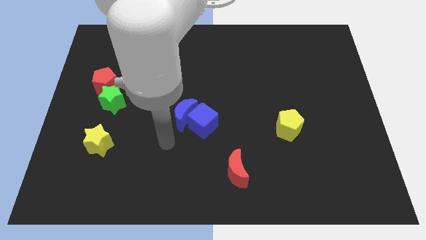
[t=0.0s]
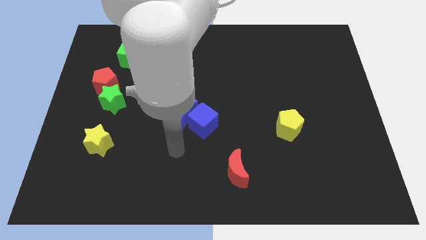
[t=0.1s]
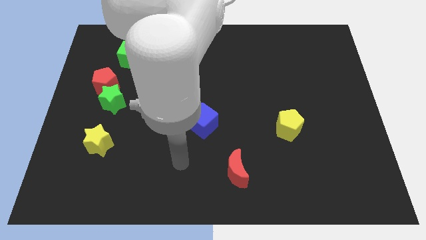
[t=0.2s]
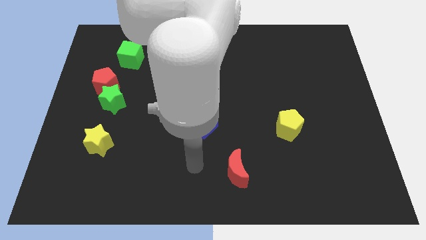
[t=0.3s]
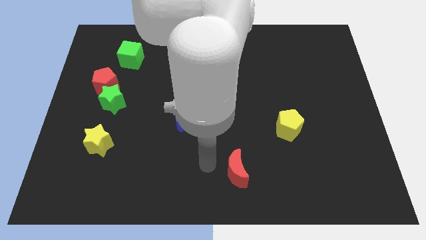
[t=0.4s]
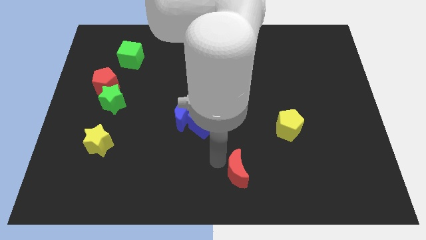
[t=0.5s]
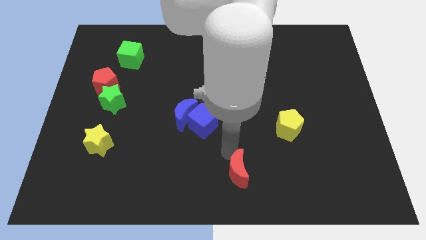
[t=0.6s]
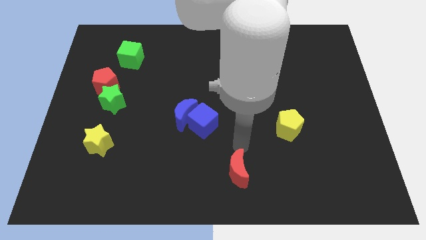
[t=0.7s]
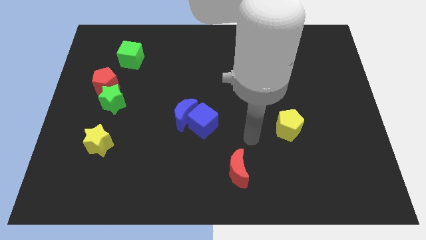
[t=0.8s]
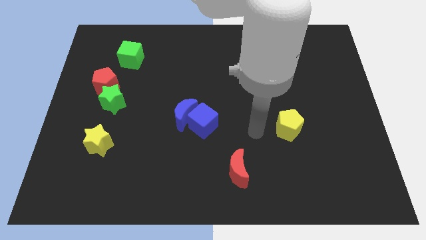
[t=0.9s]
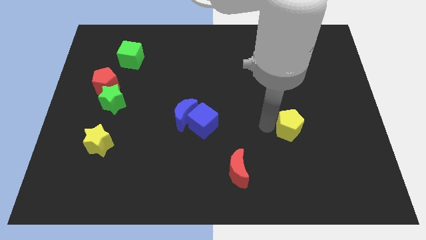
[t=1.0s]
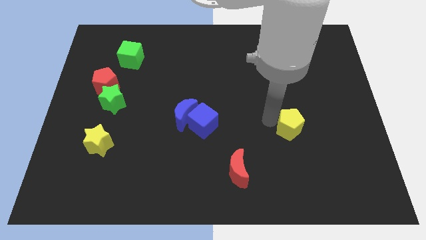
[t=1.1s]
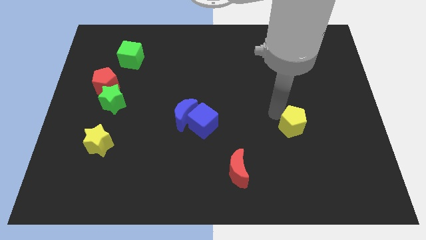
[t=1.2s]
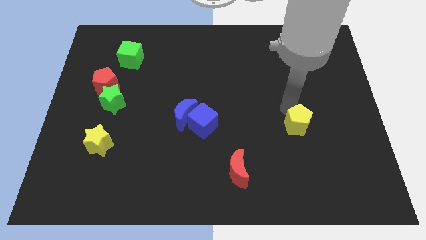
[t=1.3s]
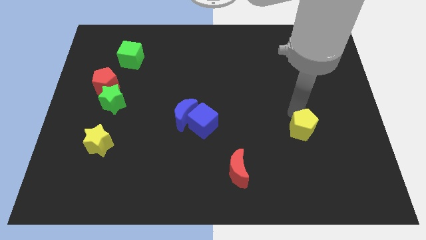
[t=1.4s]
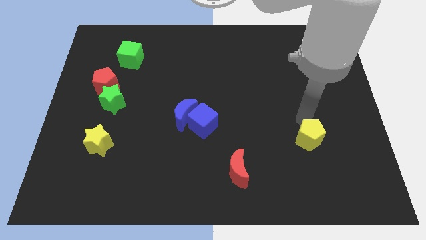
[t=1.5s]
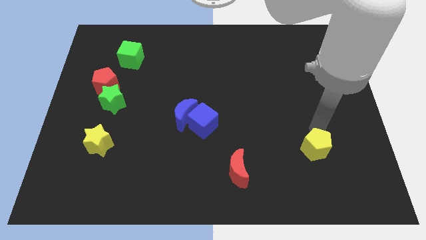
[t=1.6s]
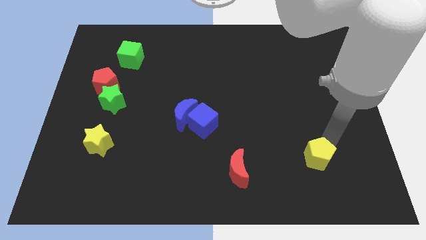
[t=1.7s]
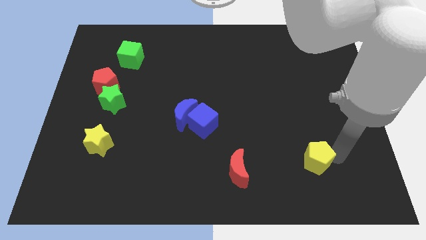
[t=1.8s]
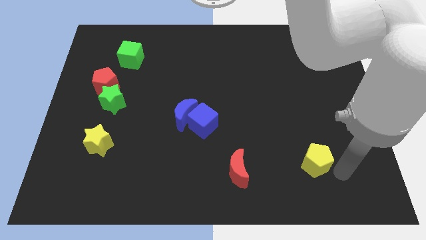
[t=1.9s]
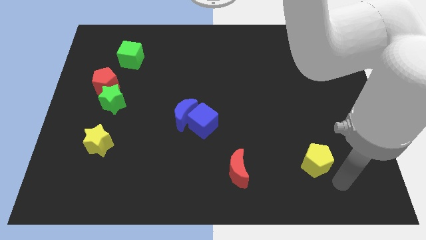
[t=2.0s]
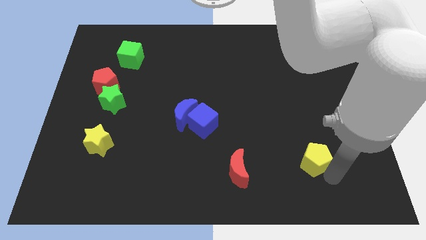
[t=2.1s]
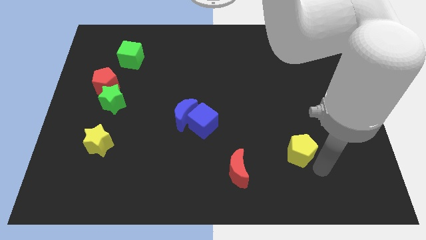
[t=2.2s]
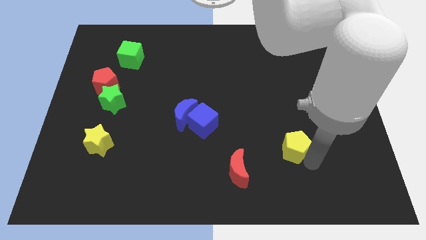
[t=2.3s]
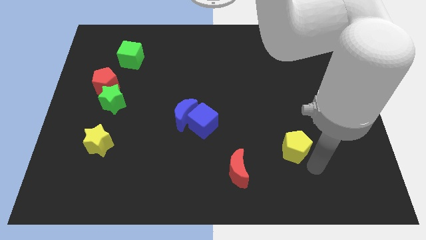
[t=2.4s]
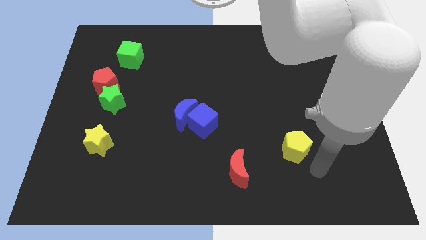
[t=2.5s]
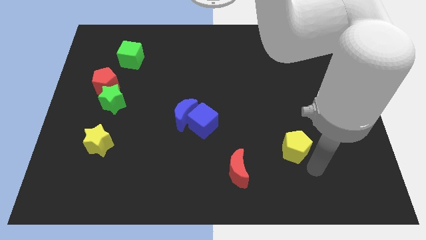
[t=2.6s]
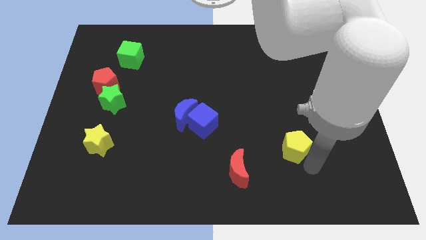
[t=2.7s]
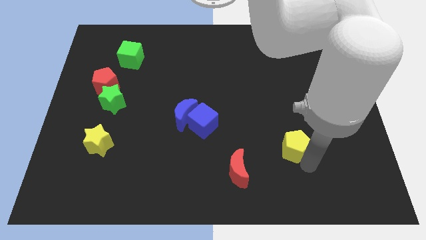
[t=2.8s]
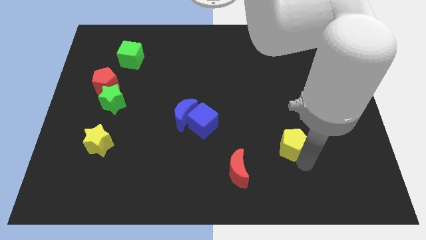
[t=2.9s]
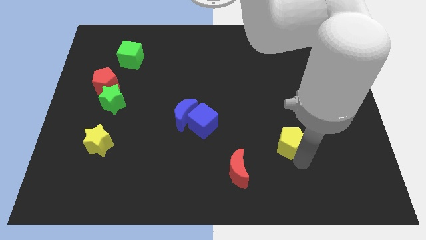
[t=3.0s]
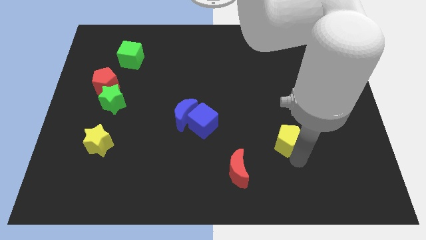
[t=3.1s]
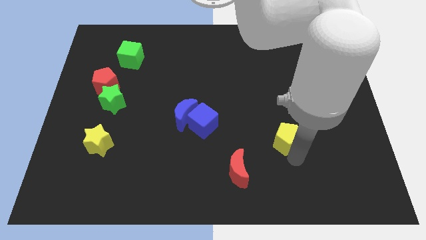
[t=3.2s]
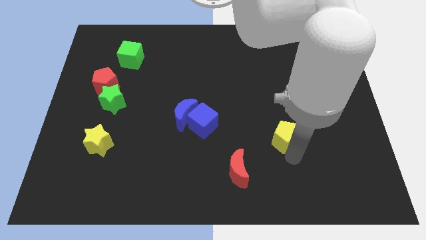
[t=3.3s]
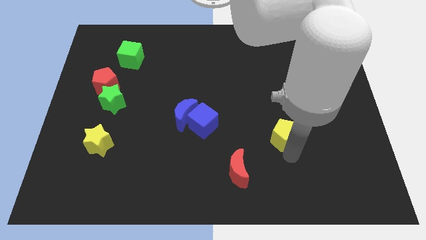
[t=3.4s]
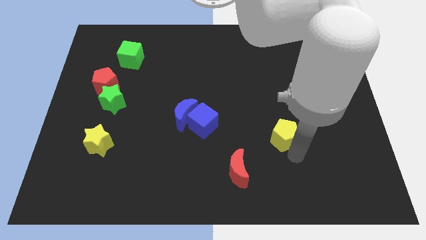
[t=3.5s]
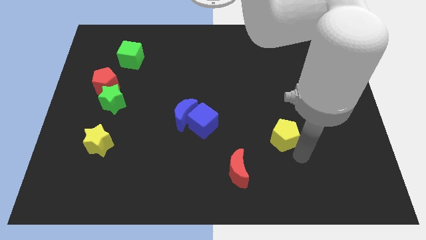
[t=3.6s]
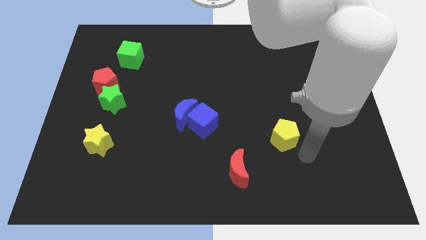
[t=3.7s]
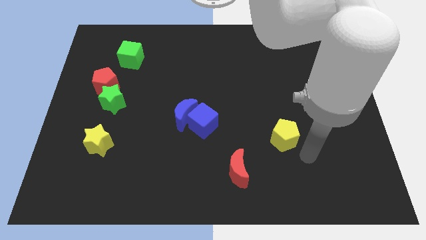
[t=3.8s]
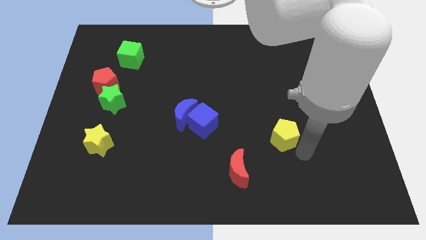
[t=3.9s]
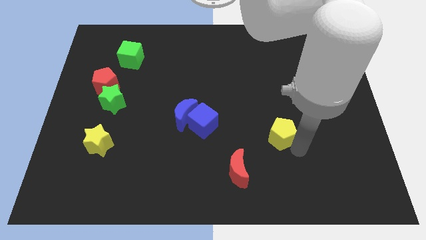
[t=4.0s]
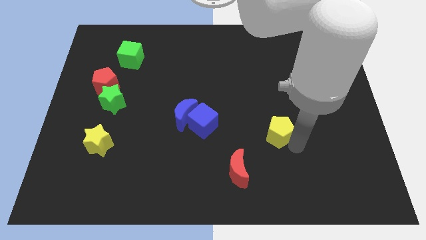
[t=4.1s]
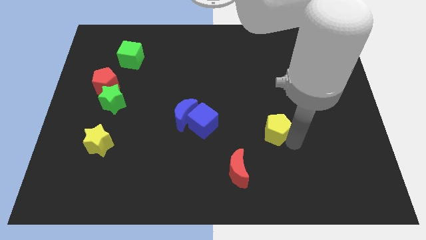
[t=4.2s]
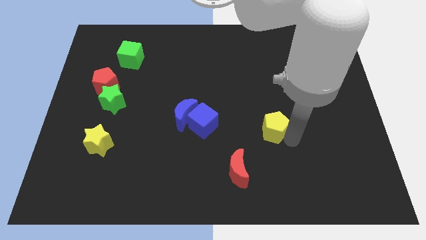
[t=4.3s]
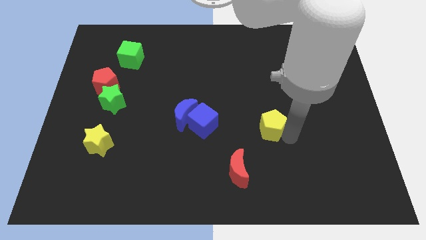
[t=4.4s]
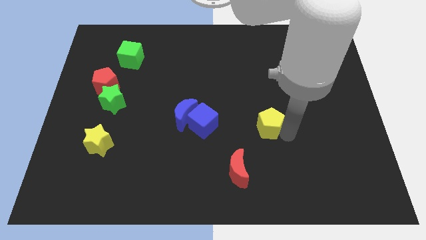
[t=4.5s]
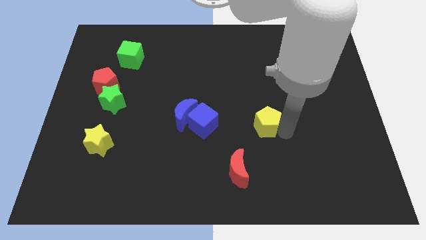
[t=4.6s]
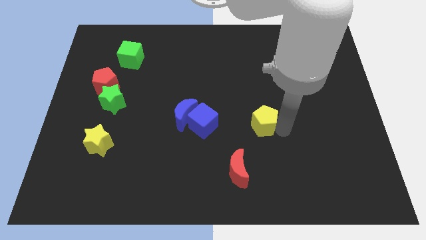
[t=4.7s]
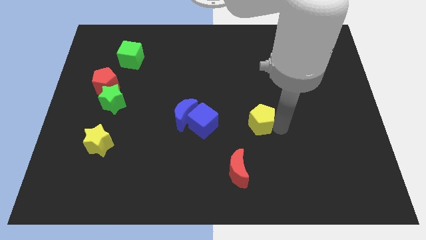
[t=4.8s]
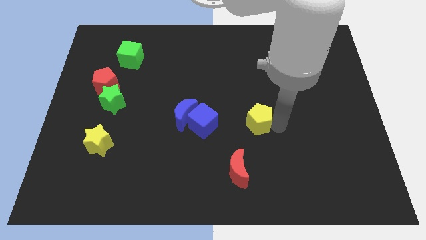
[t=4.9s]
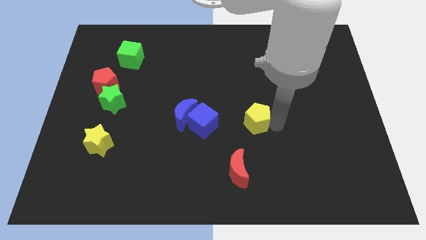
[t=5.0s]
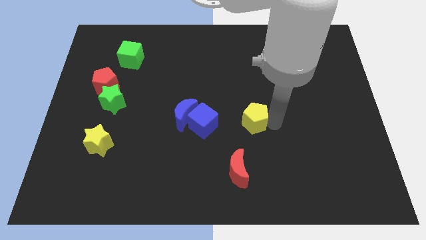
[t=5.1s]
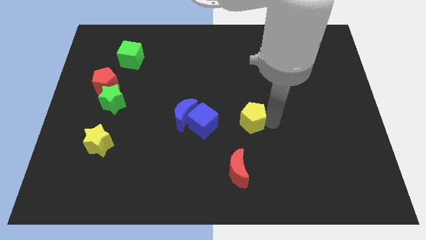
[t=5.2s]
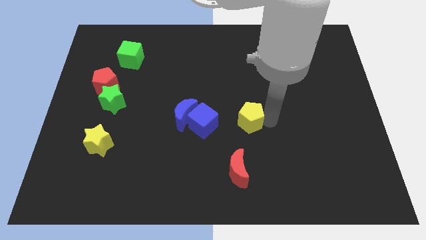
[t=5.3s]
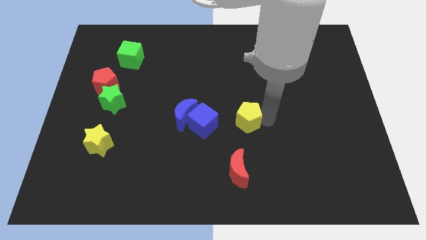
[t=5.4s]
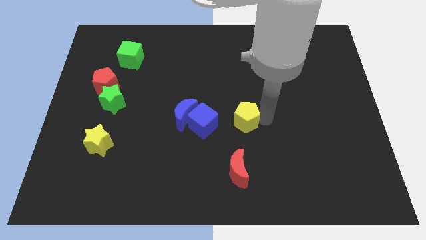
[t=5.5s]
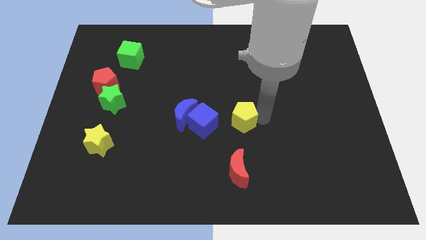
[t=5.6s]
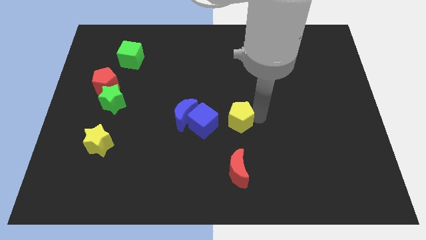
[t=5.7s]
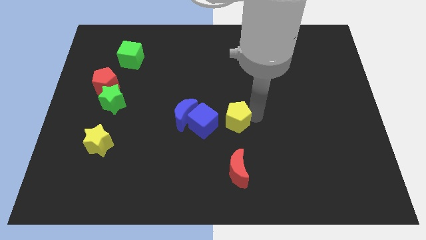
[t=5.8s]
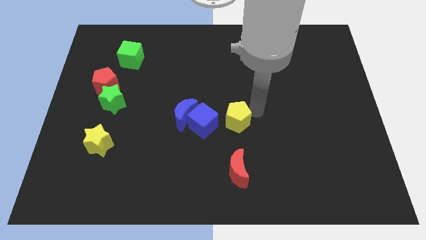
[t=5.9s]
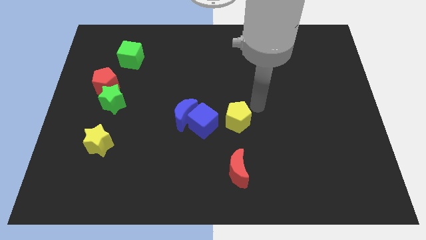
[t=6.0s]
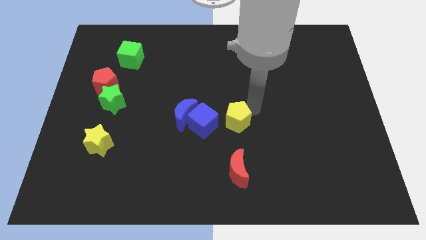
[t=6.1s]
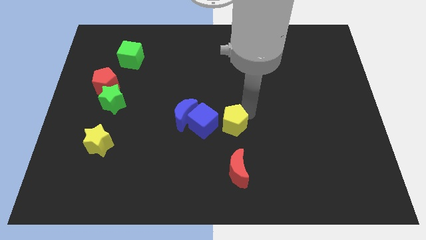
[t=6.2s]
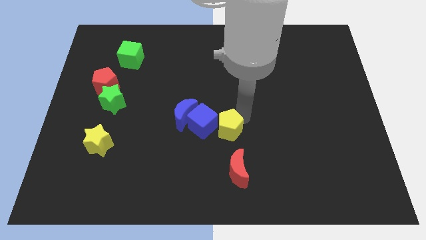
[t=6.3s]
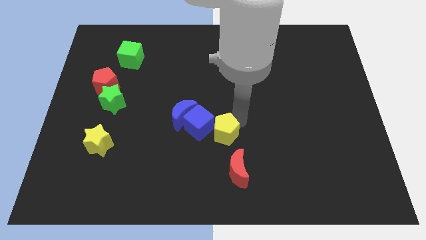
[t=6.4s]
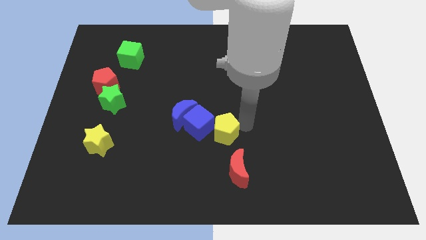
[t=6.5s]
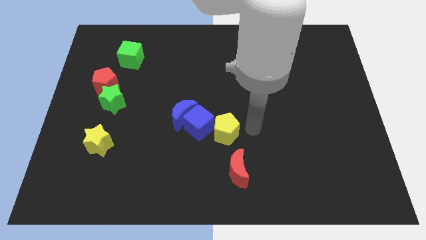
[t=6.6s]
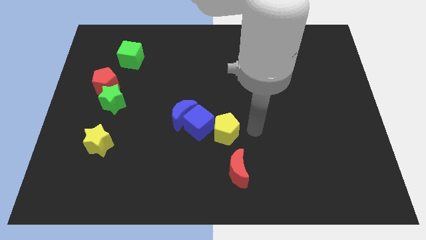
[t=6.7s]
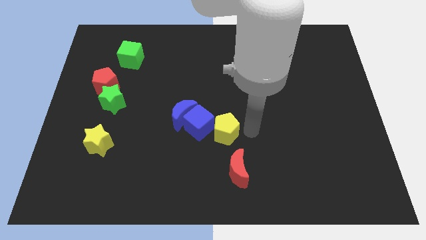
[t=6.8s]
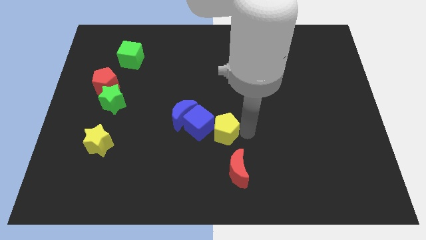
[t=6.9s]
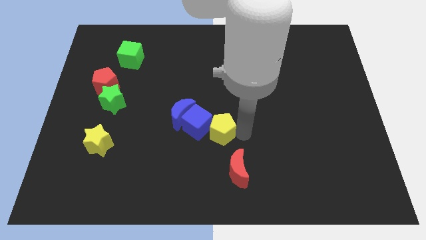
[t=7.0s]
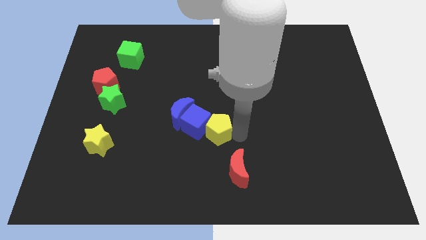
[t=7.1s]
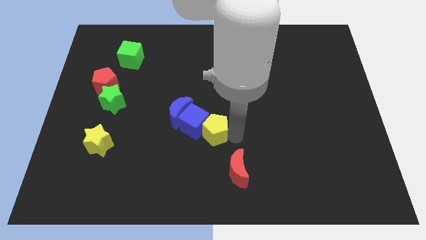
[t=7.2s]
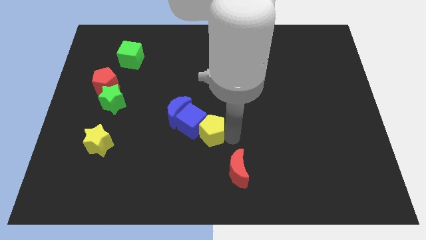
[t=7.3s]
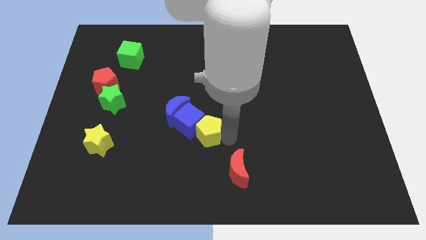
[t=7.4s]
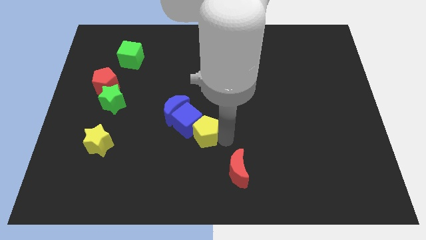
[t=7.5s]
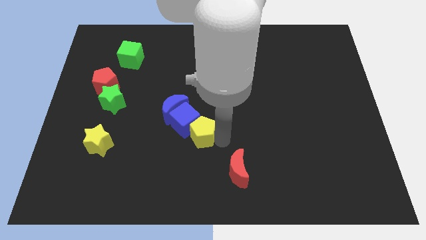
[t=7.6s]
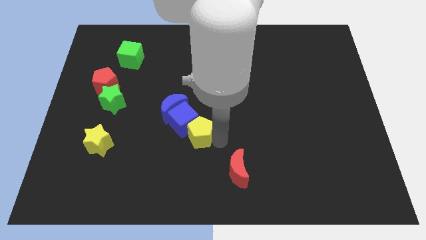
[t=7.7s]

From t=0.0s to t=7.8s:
move the yellow pentagon left
